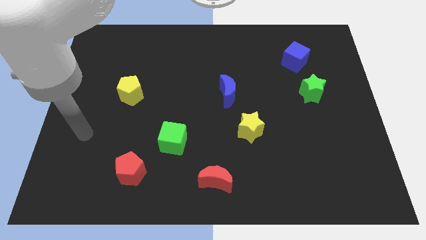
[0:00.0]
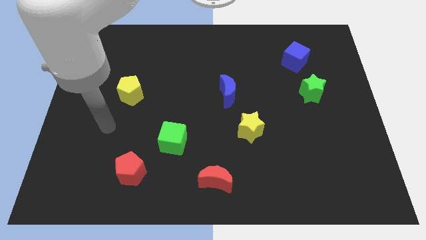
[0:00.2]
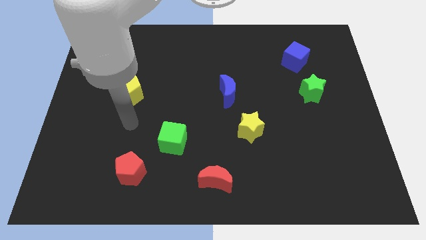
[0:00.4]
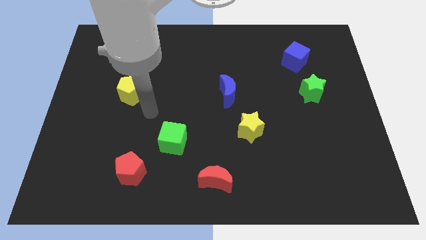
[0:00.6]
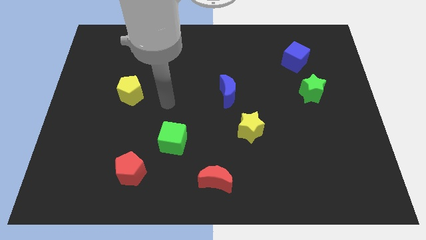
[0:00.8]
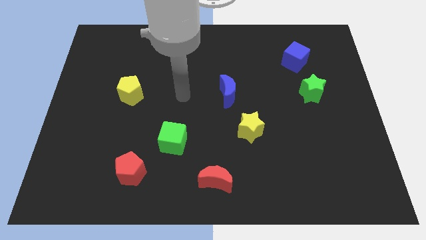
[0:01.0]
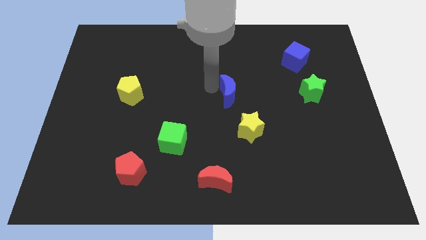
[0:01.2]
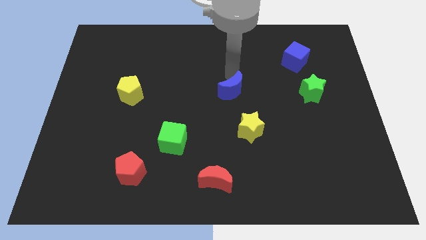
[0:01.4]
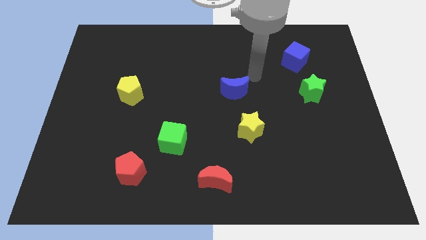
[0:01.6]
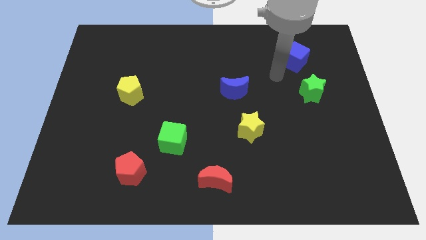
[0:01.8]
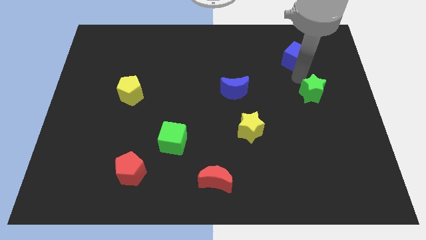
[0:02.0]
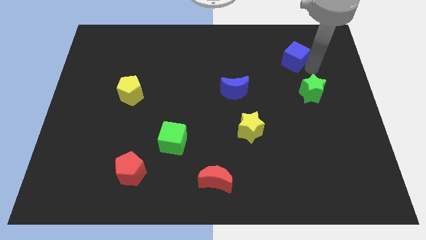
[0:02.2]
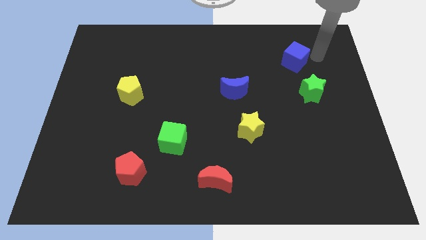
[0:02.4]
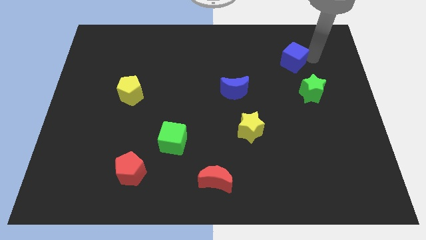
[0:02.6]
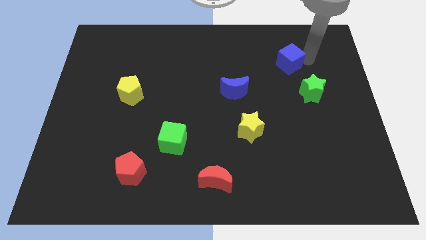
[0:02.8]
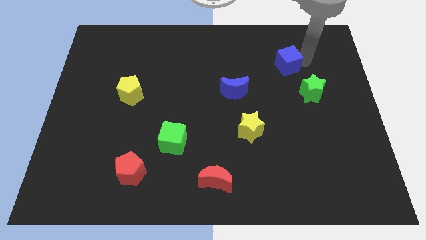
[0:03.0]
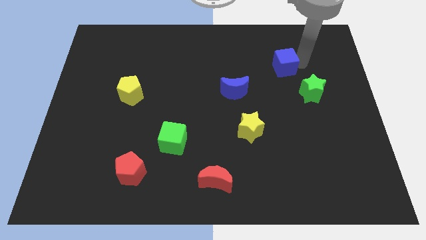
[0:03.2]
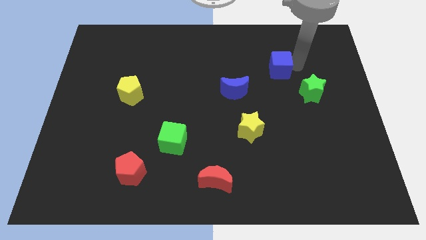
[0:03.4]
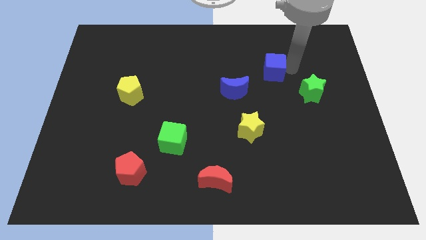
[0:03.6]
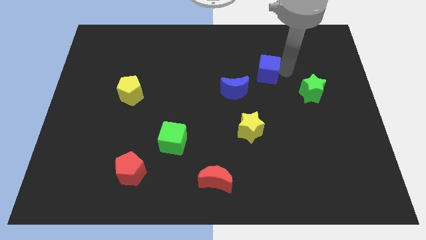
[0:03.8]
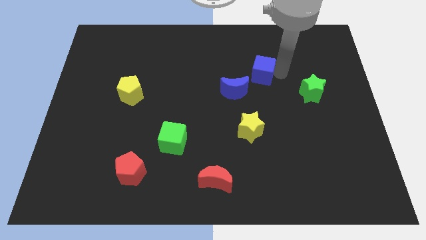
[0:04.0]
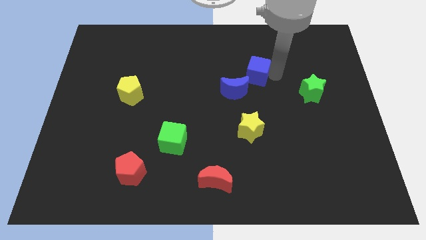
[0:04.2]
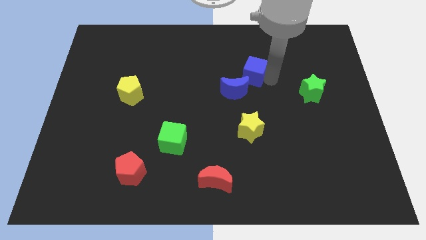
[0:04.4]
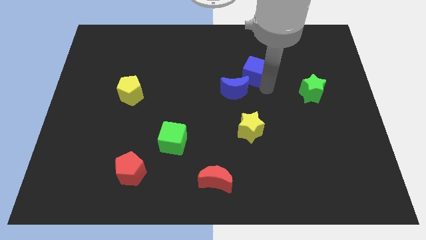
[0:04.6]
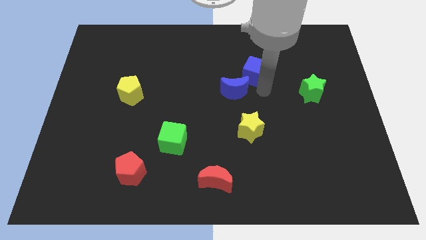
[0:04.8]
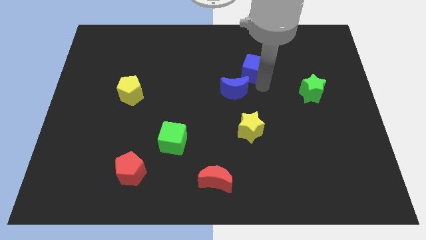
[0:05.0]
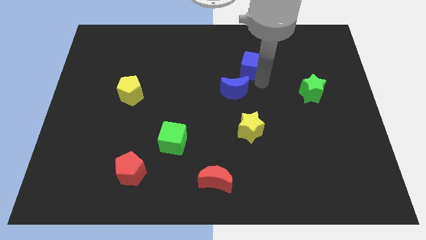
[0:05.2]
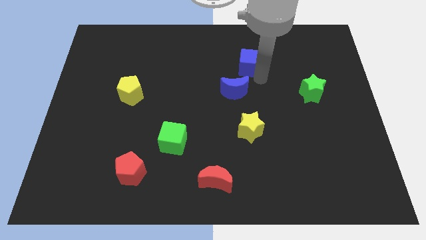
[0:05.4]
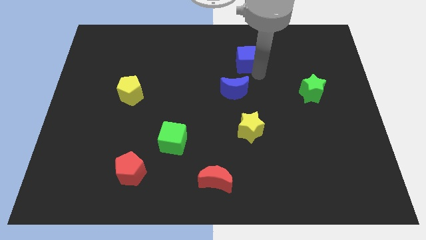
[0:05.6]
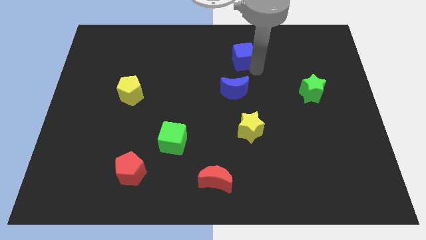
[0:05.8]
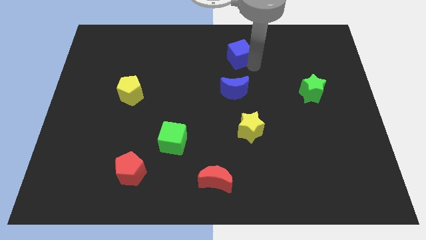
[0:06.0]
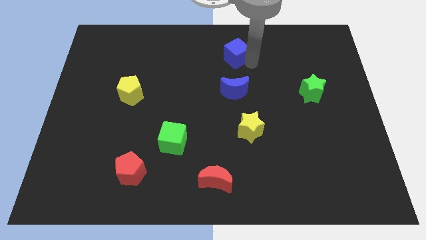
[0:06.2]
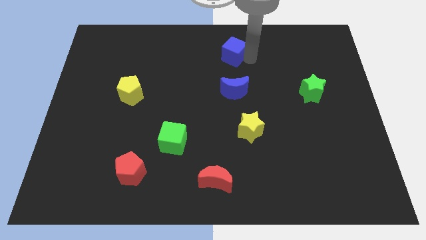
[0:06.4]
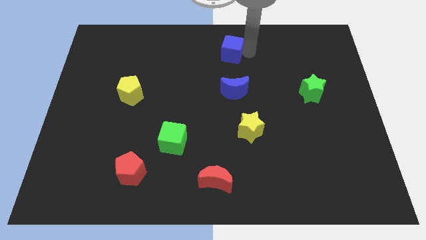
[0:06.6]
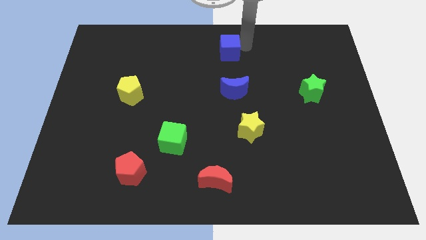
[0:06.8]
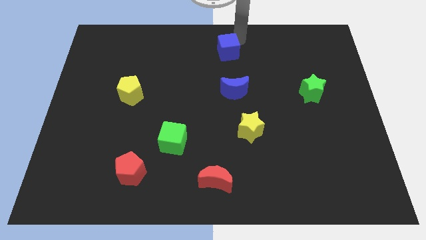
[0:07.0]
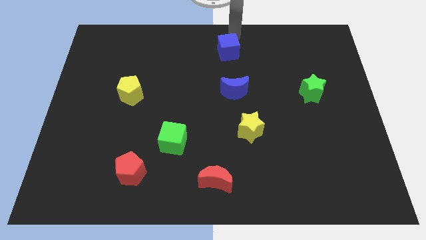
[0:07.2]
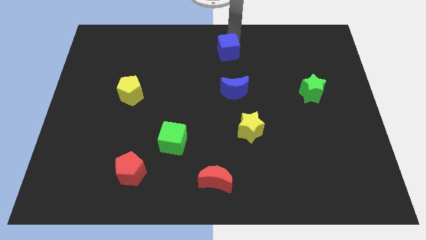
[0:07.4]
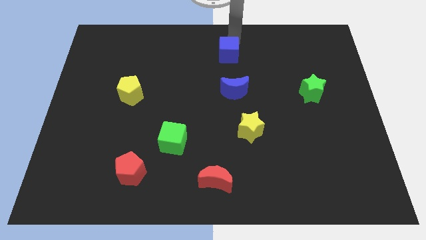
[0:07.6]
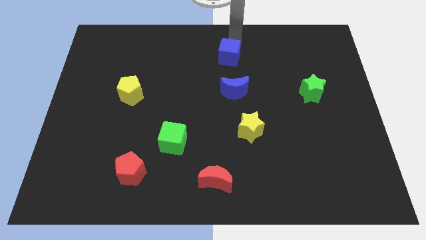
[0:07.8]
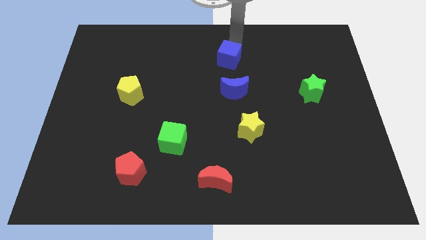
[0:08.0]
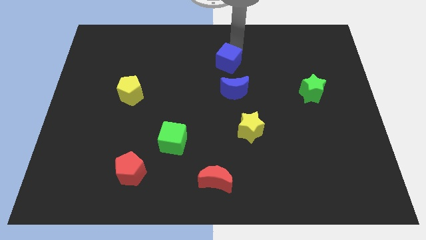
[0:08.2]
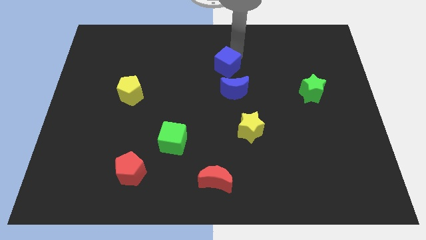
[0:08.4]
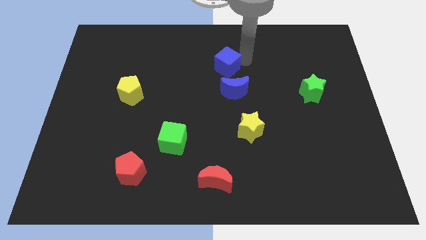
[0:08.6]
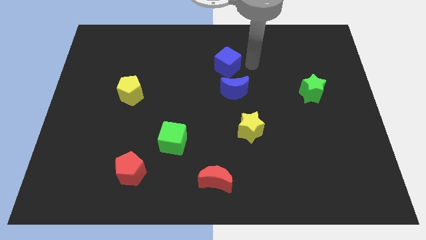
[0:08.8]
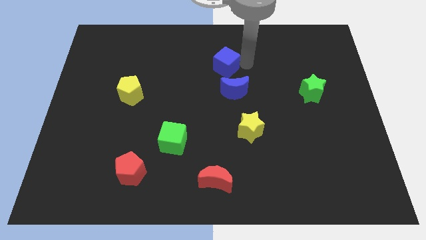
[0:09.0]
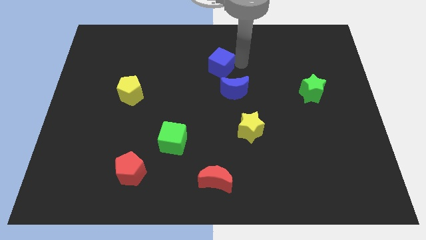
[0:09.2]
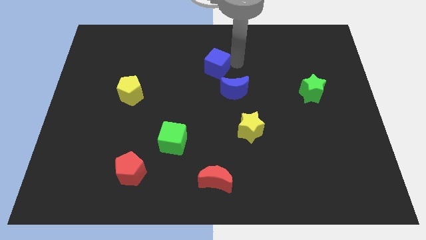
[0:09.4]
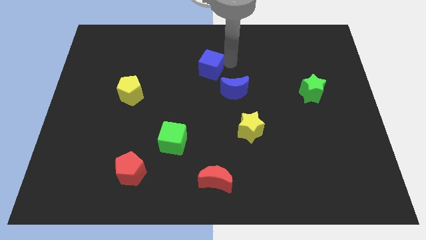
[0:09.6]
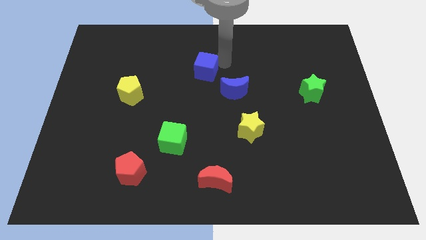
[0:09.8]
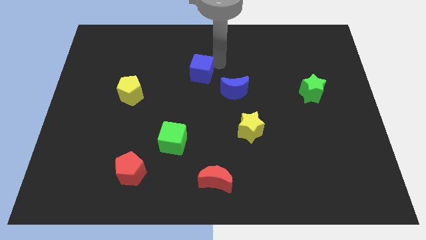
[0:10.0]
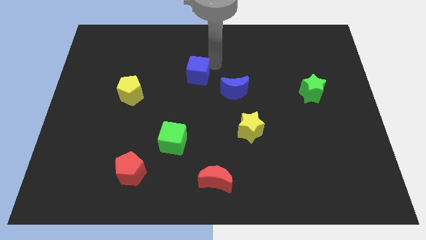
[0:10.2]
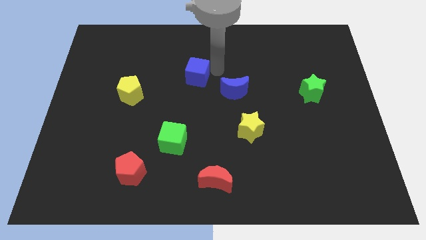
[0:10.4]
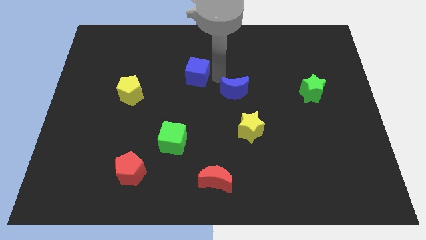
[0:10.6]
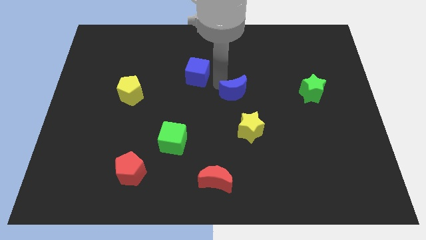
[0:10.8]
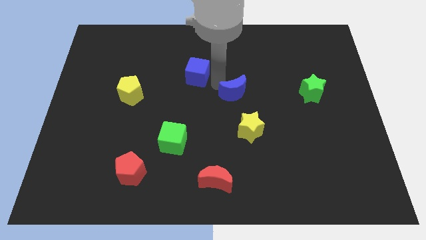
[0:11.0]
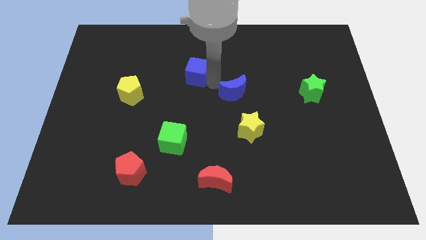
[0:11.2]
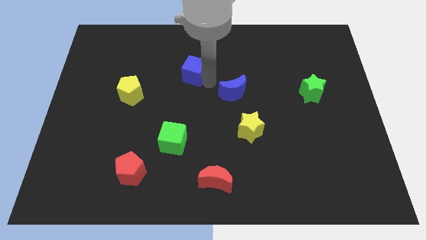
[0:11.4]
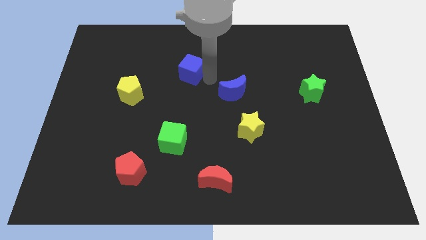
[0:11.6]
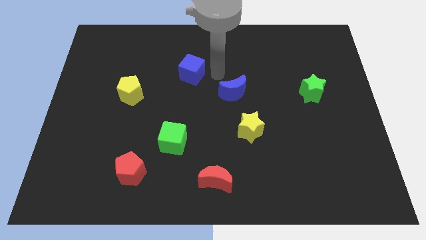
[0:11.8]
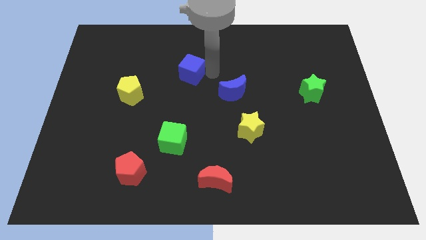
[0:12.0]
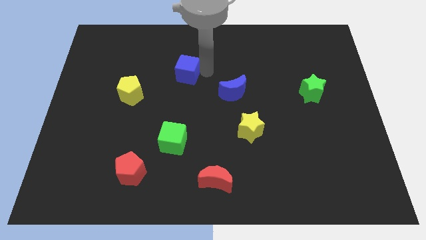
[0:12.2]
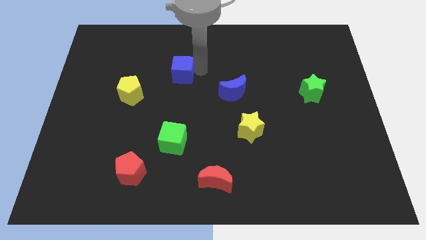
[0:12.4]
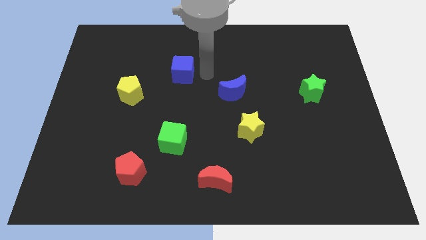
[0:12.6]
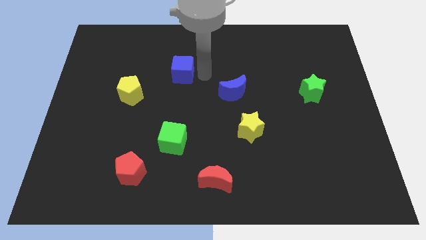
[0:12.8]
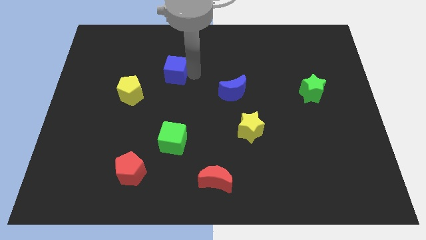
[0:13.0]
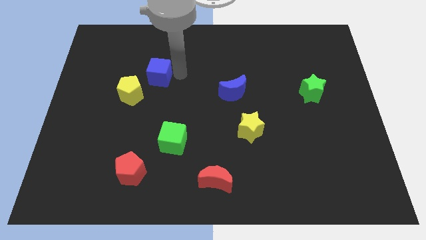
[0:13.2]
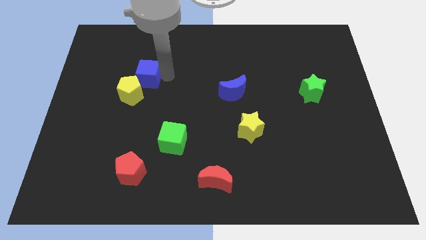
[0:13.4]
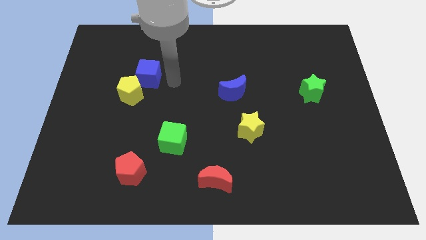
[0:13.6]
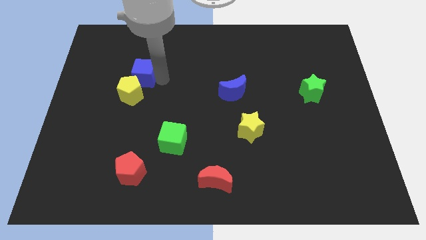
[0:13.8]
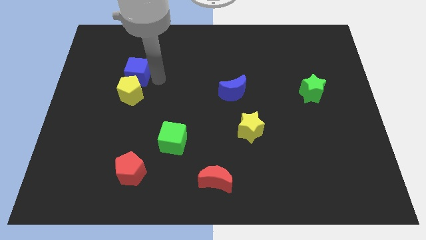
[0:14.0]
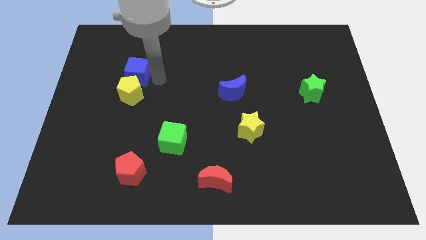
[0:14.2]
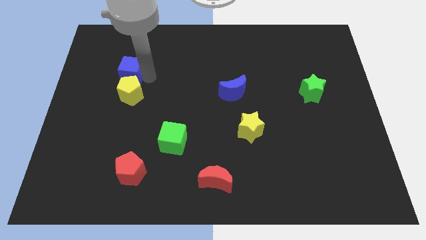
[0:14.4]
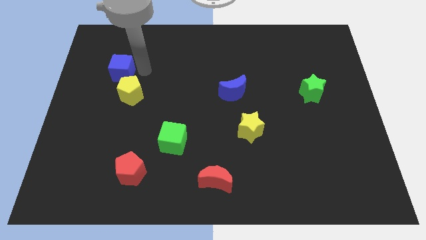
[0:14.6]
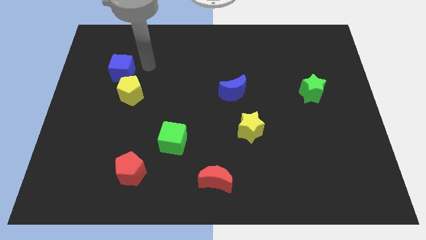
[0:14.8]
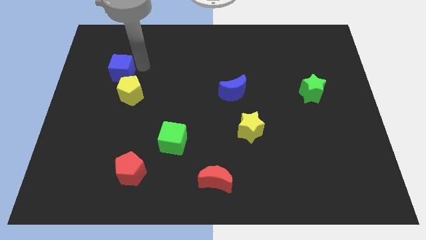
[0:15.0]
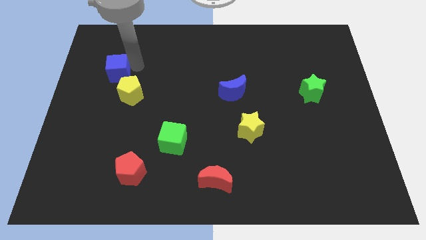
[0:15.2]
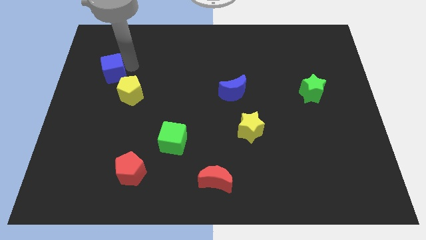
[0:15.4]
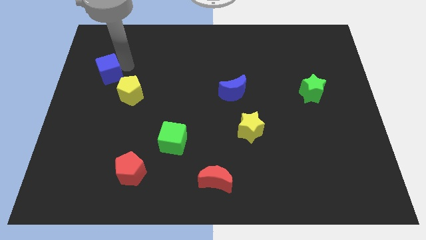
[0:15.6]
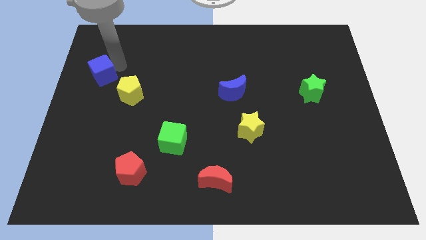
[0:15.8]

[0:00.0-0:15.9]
put the blue cube to the left side of the board
